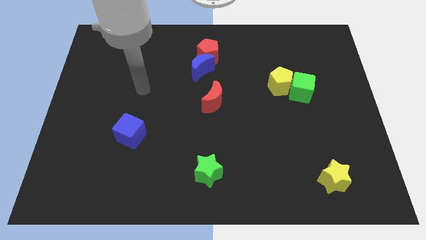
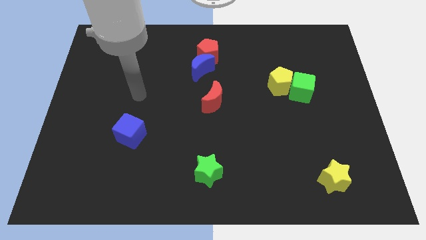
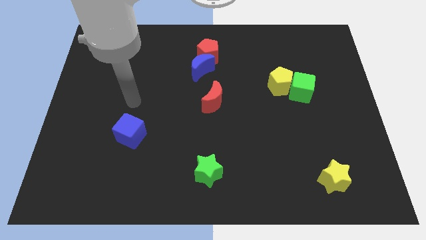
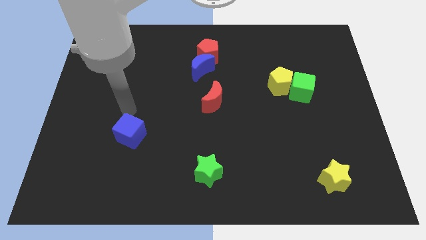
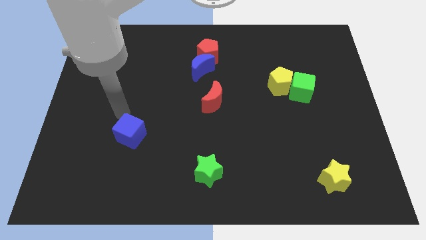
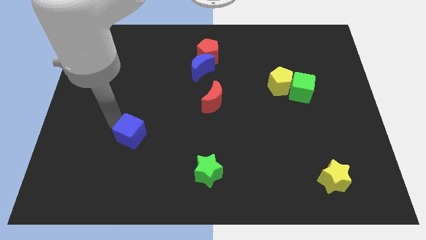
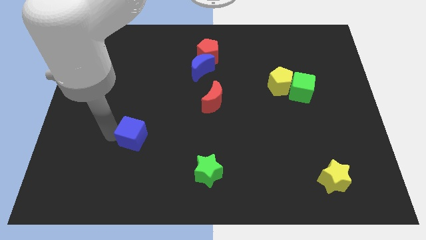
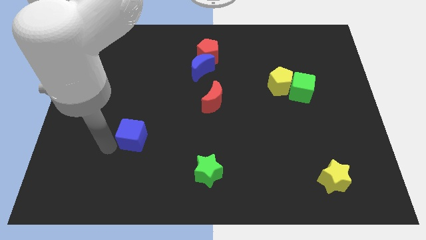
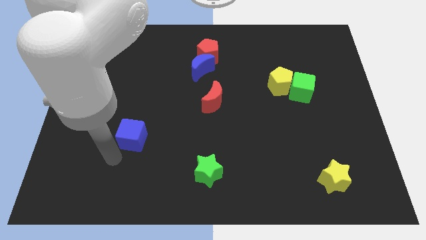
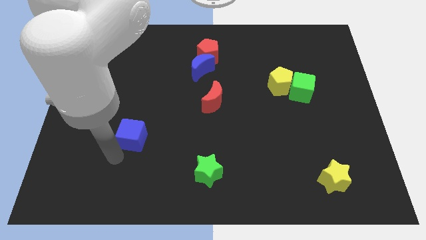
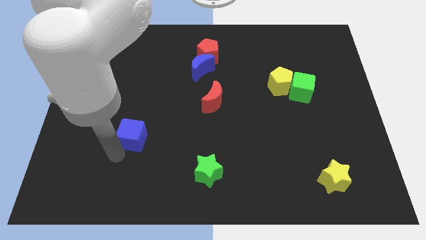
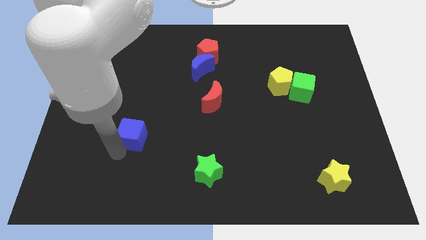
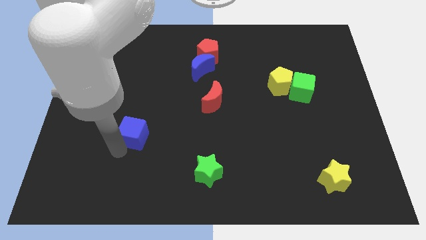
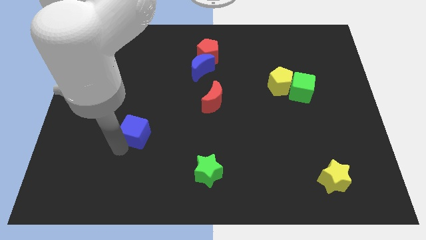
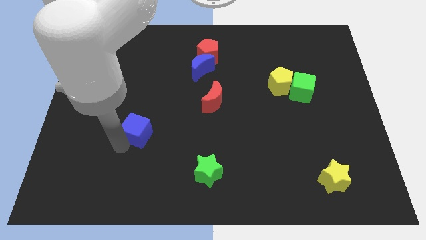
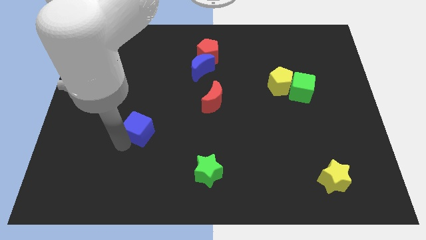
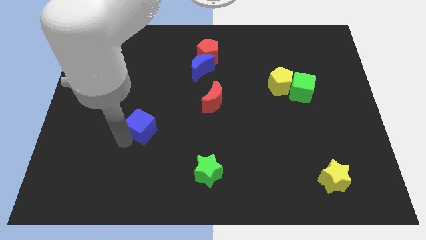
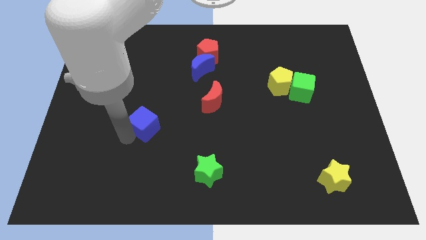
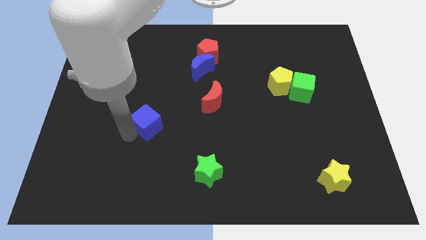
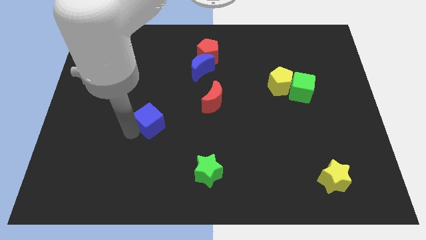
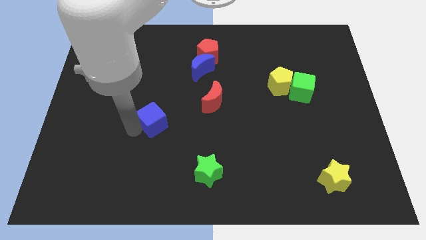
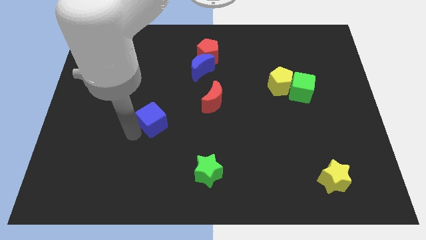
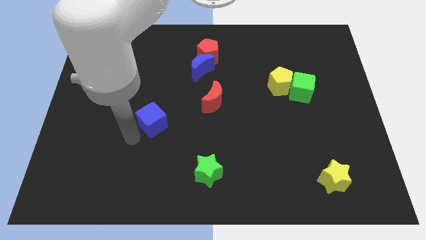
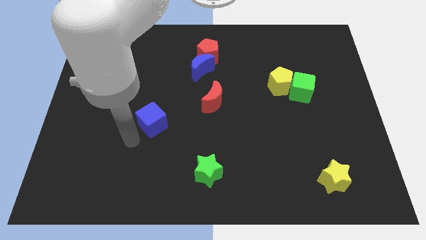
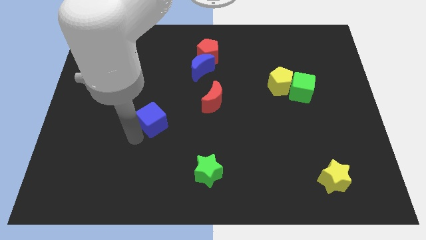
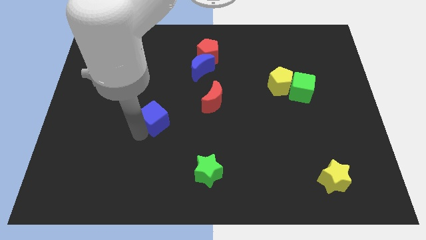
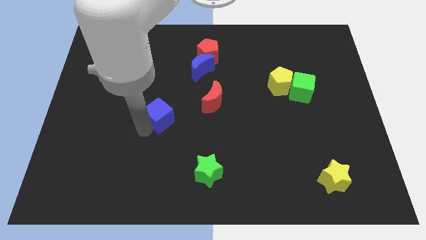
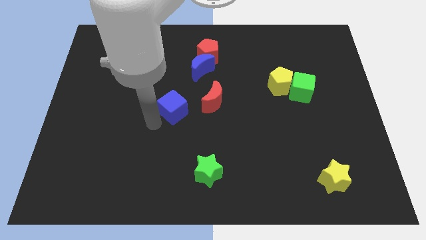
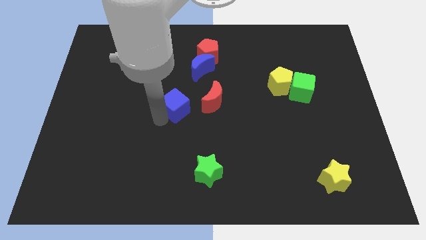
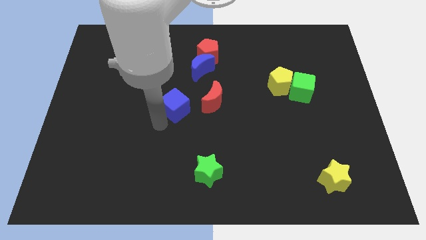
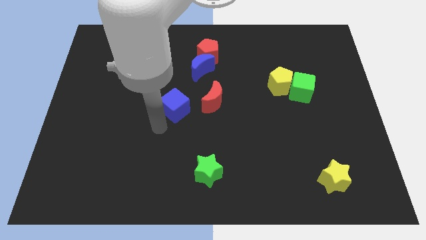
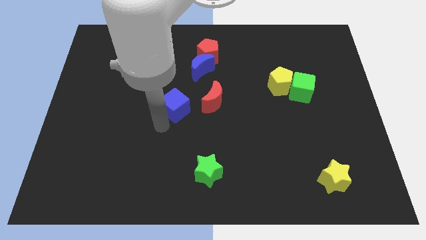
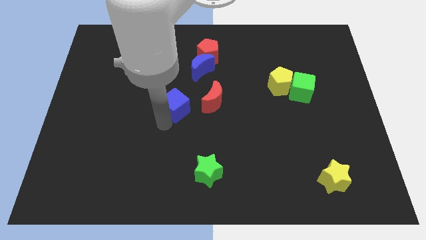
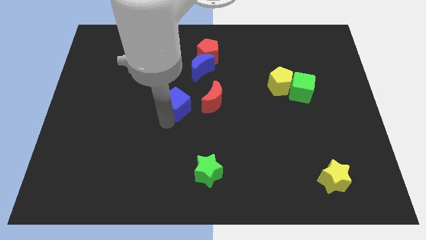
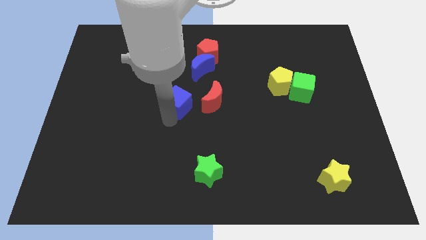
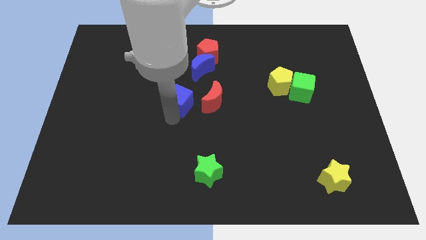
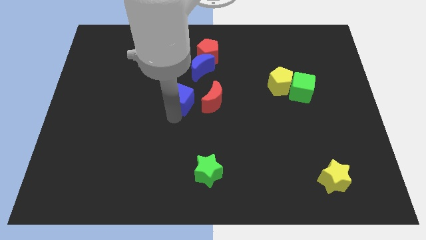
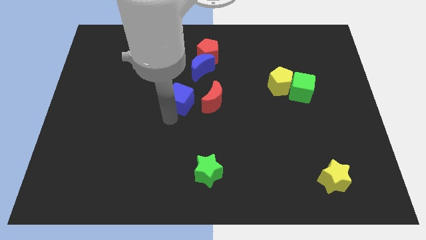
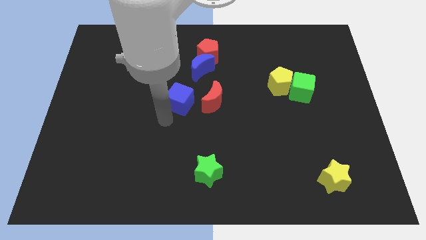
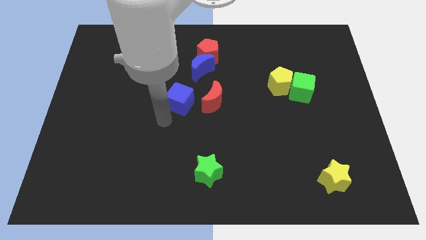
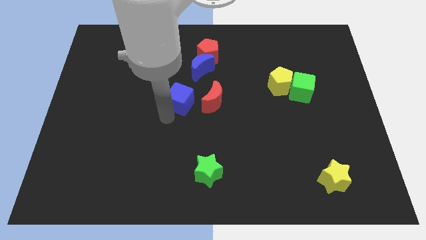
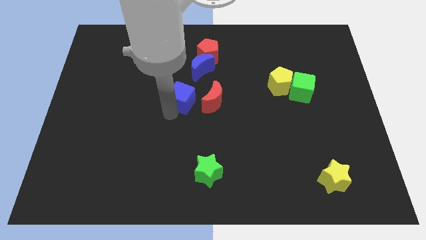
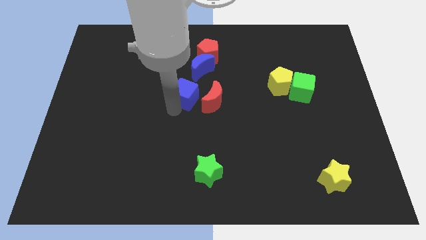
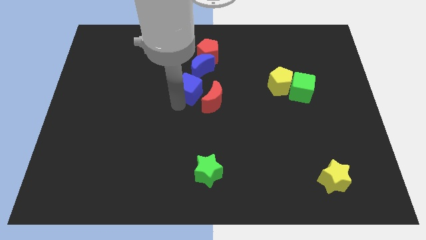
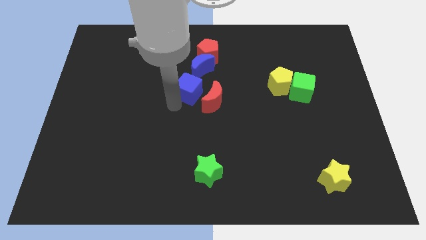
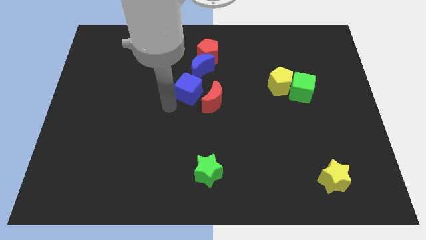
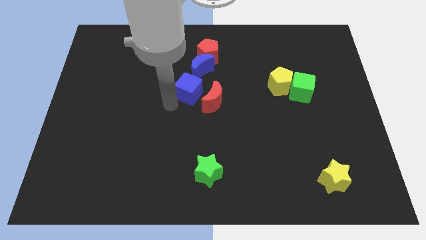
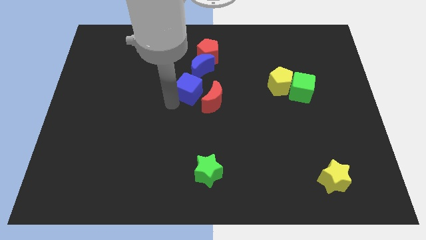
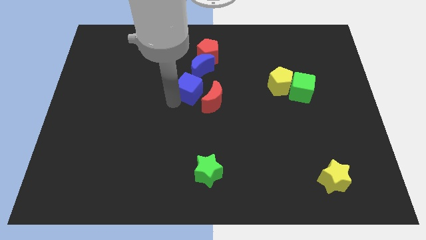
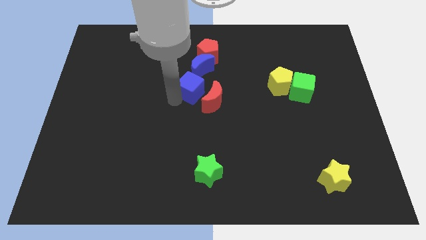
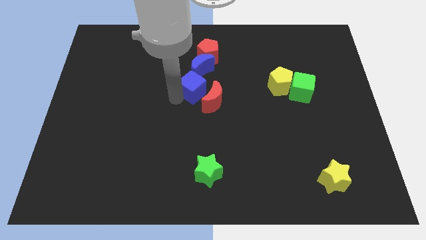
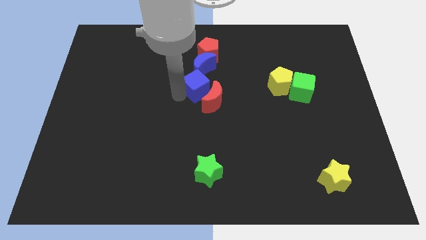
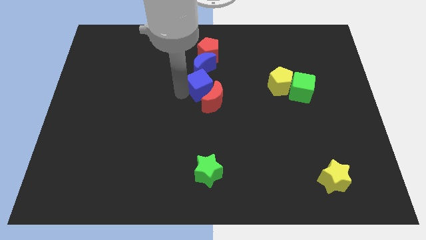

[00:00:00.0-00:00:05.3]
push the blue cube up and right

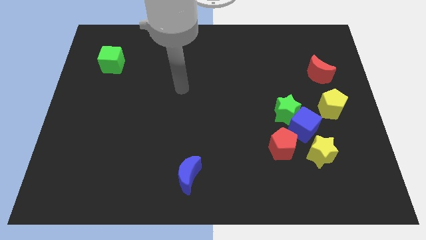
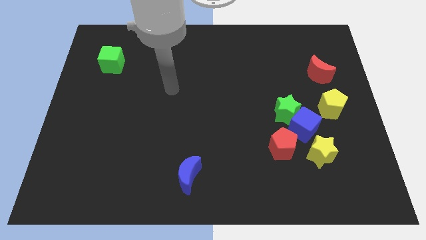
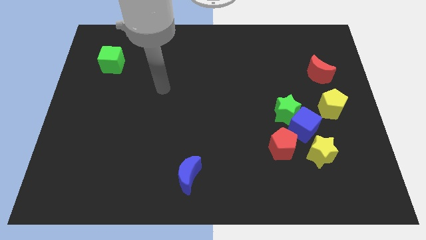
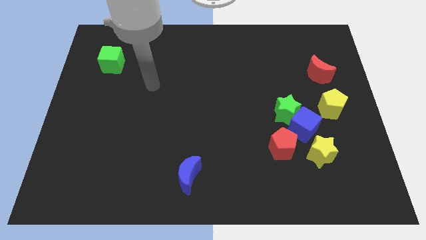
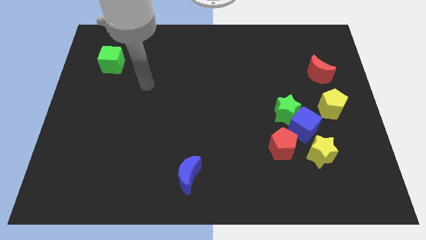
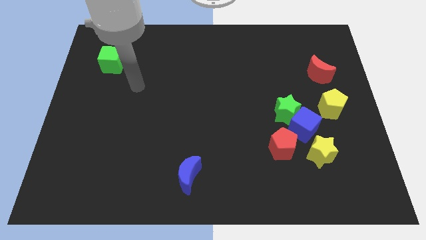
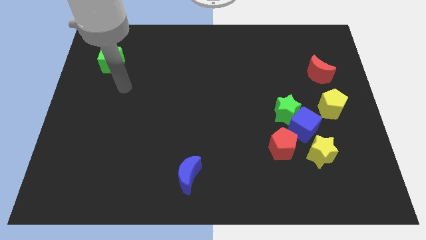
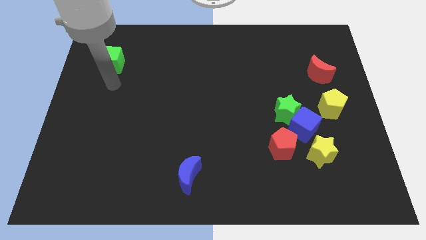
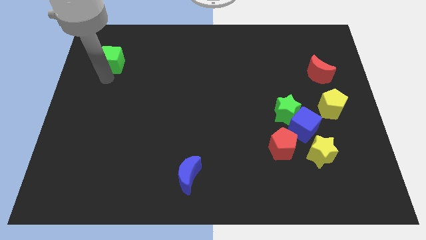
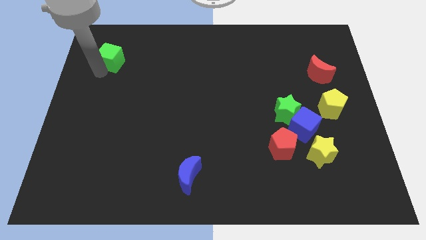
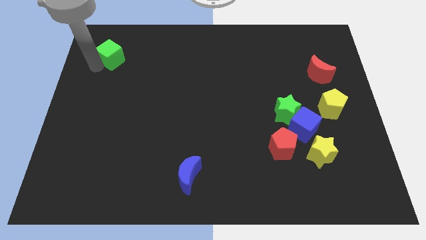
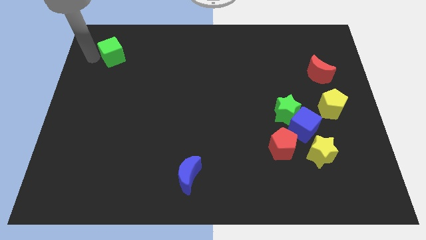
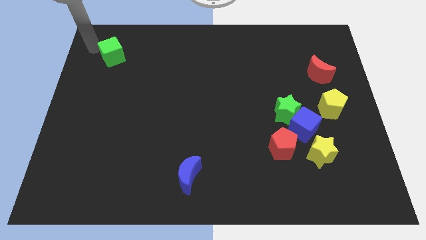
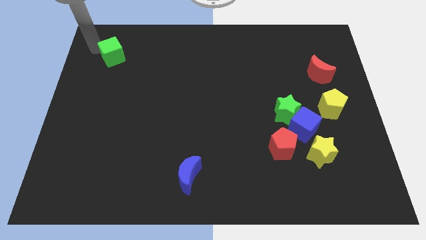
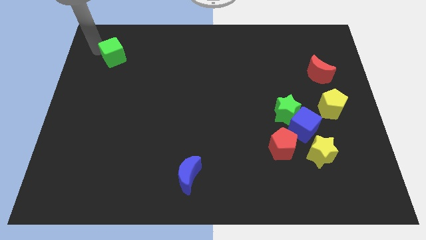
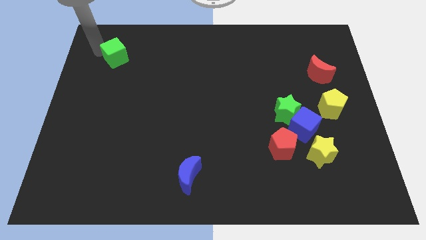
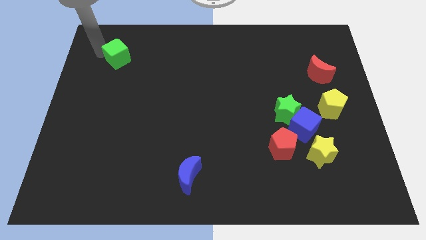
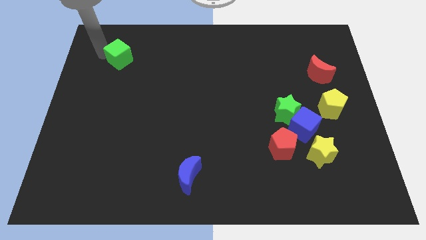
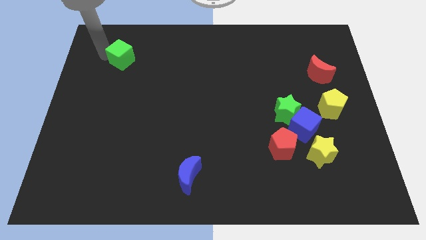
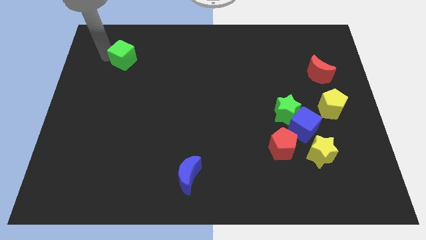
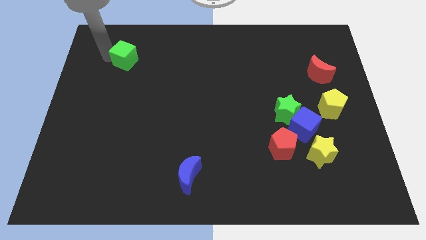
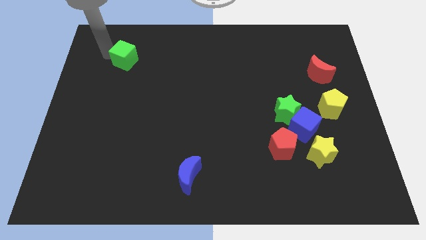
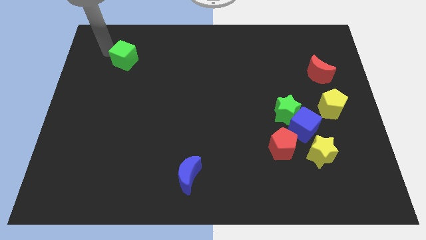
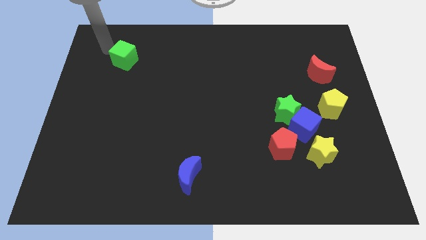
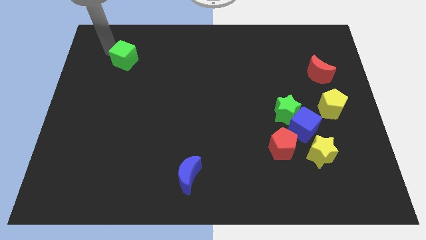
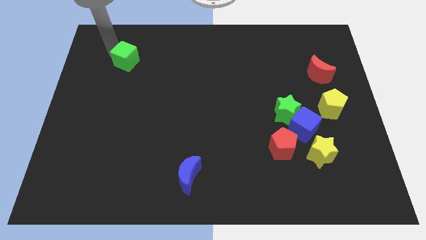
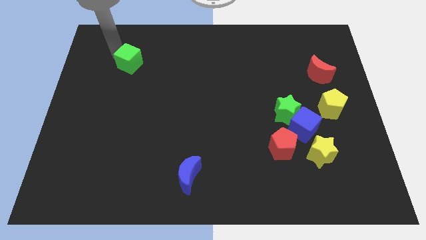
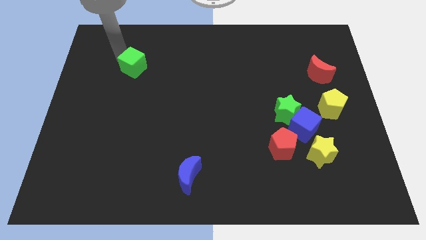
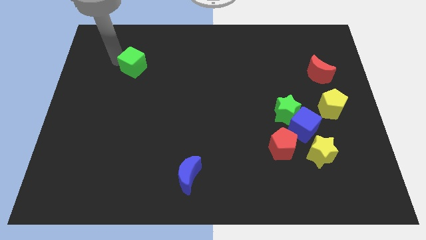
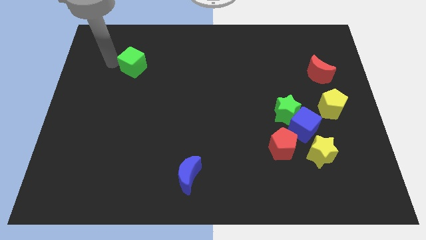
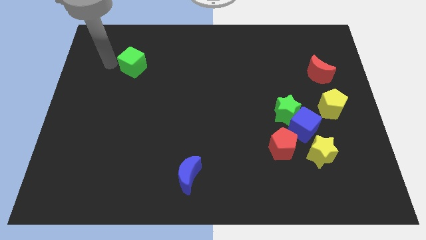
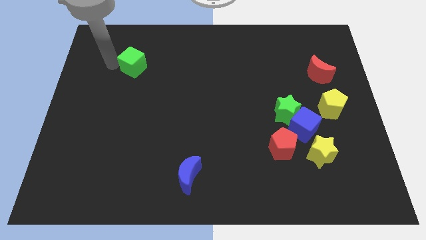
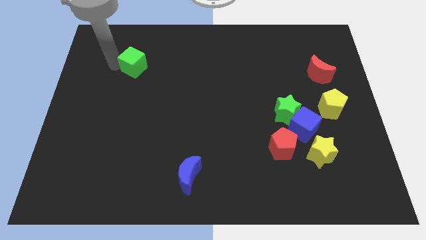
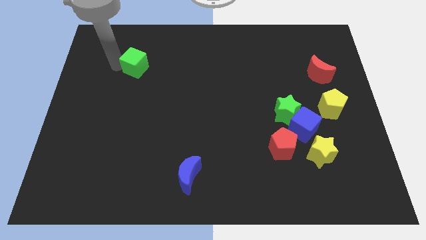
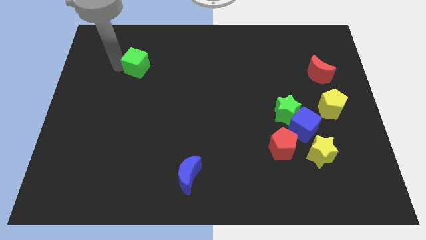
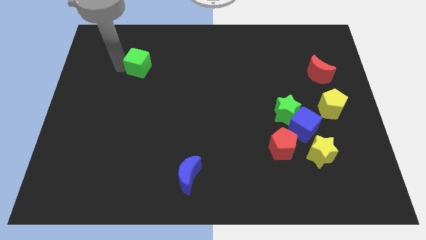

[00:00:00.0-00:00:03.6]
slightly slide the green cube to the right
